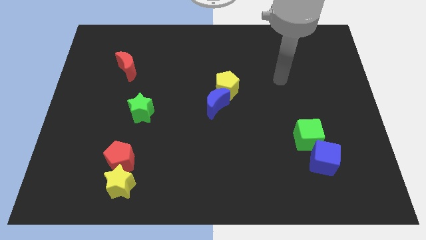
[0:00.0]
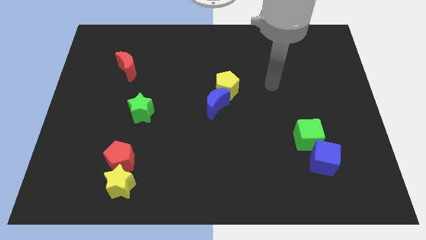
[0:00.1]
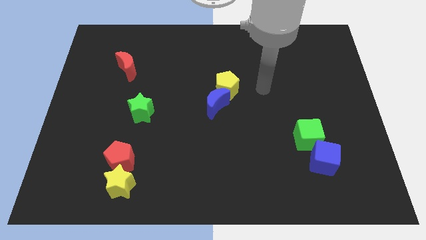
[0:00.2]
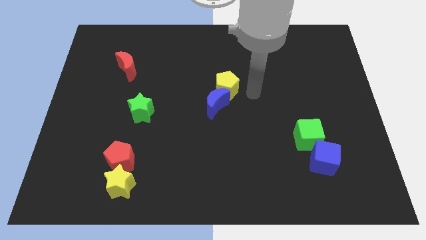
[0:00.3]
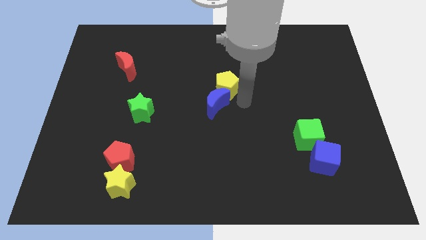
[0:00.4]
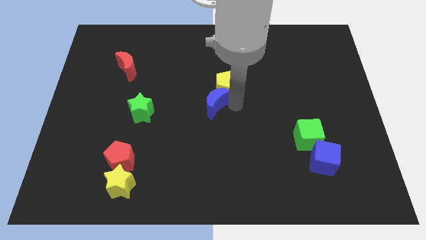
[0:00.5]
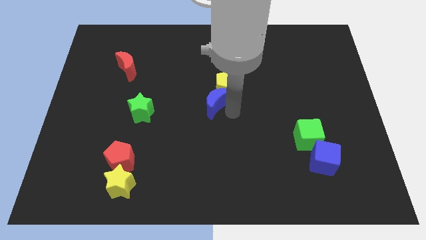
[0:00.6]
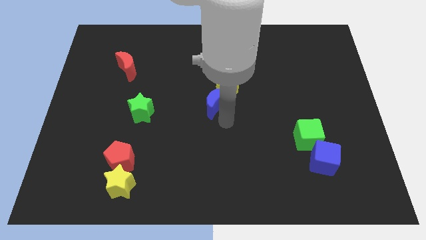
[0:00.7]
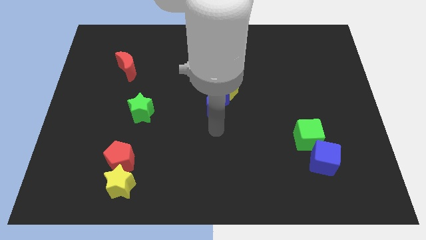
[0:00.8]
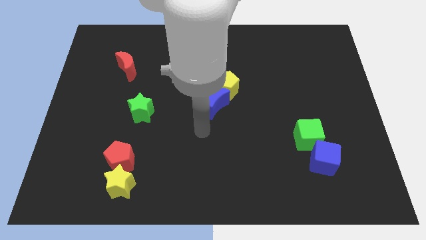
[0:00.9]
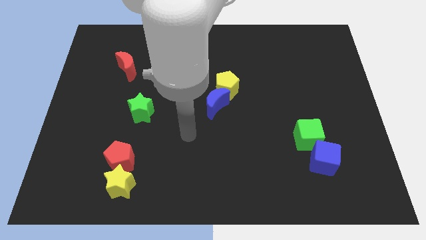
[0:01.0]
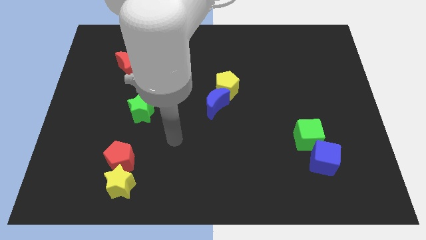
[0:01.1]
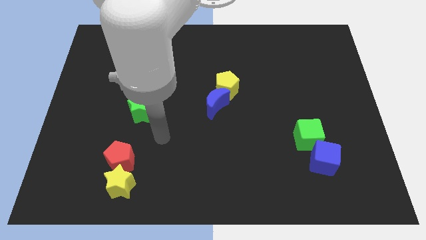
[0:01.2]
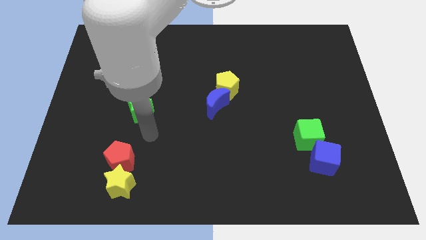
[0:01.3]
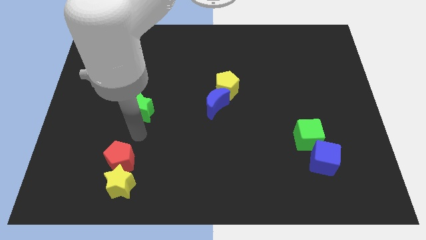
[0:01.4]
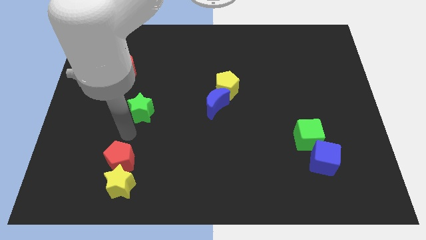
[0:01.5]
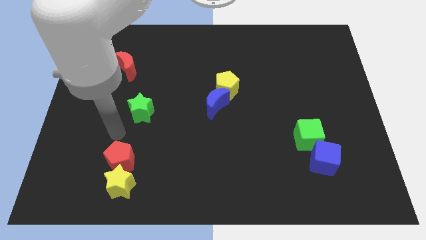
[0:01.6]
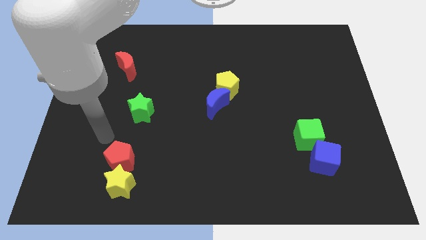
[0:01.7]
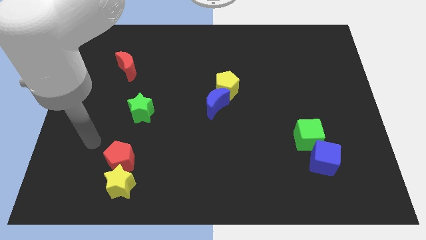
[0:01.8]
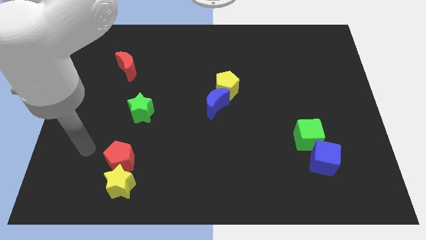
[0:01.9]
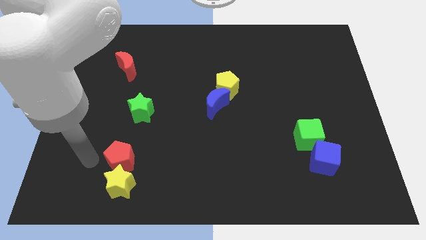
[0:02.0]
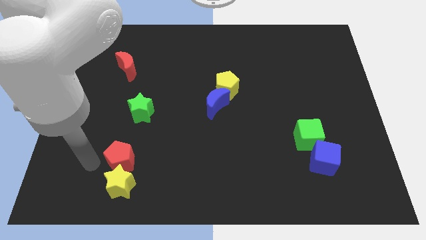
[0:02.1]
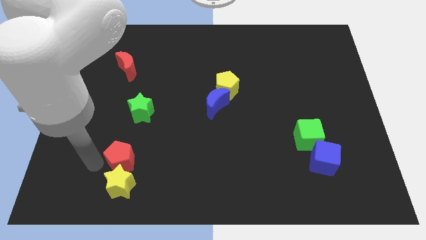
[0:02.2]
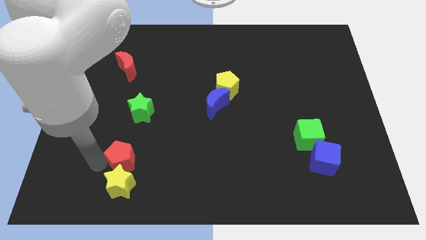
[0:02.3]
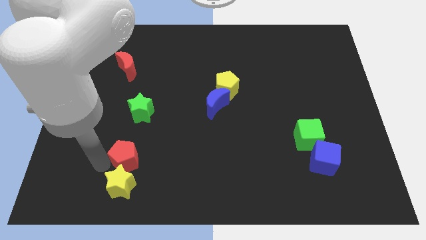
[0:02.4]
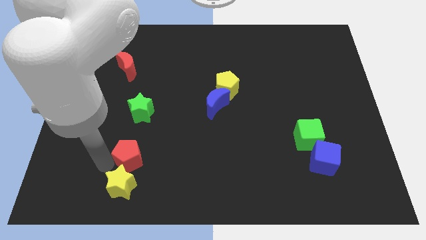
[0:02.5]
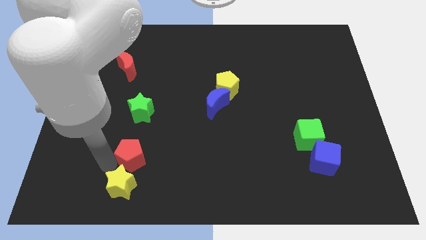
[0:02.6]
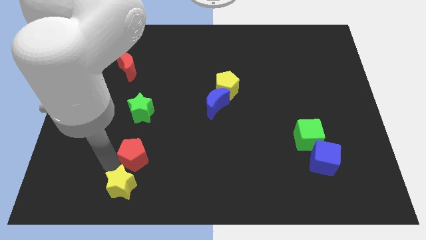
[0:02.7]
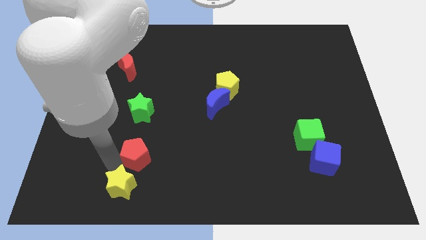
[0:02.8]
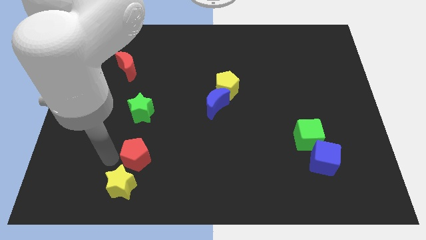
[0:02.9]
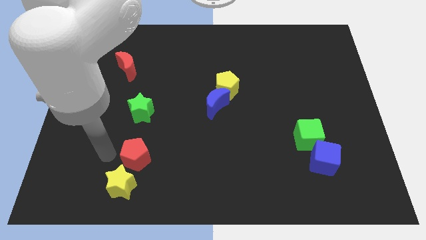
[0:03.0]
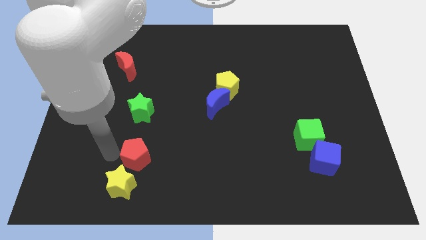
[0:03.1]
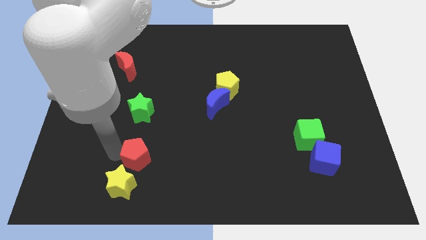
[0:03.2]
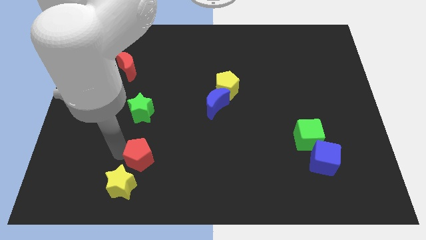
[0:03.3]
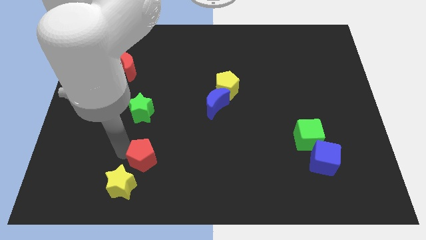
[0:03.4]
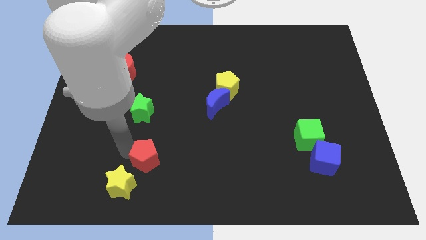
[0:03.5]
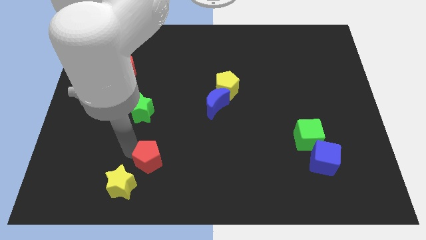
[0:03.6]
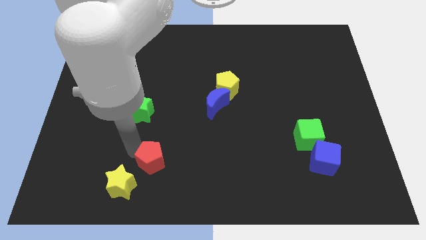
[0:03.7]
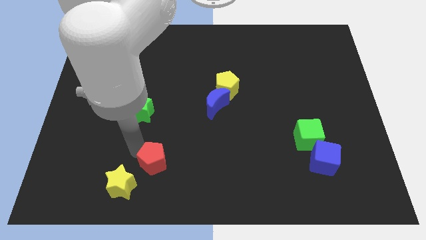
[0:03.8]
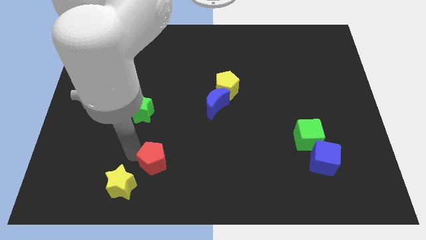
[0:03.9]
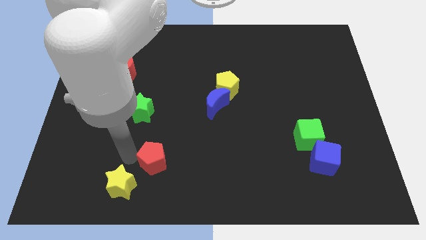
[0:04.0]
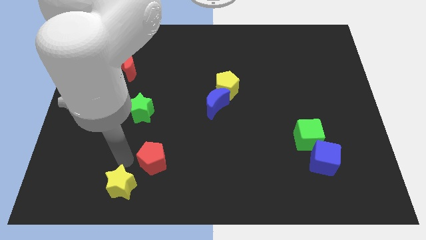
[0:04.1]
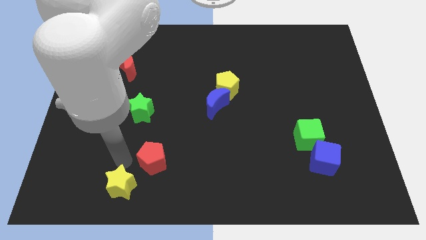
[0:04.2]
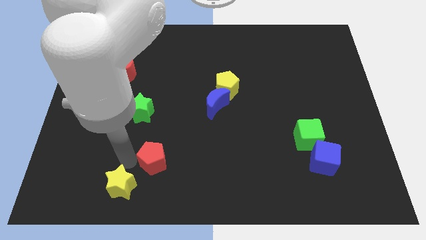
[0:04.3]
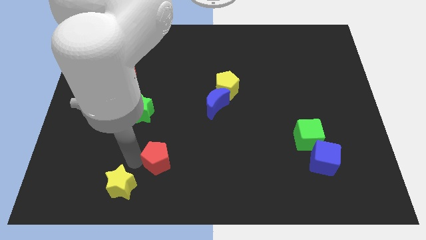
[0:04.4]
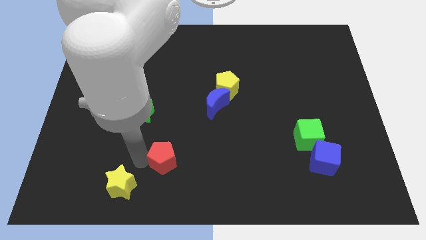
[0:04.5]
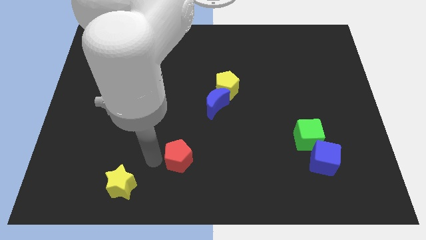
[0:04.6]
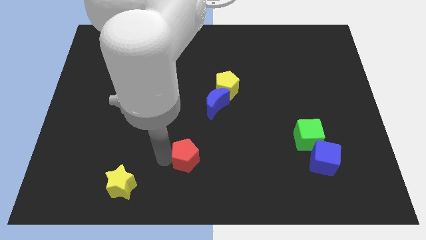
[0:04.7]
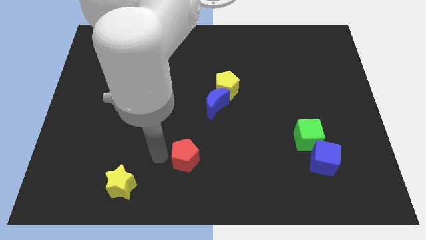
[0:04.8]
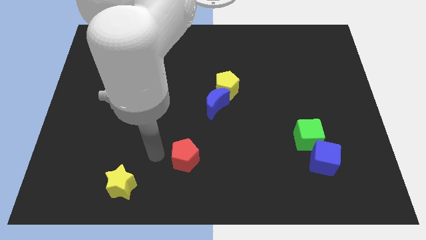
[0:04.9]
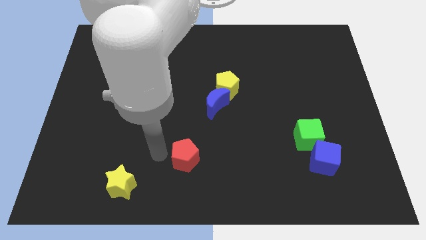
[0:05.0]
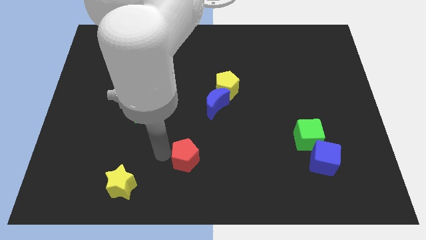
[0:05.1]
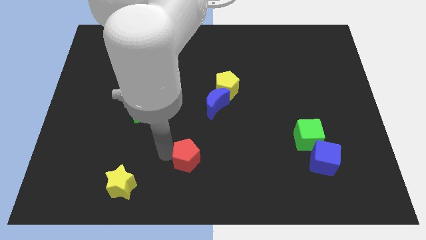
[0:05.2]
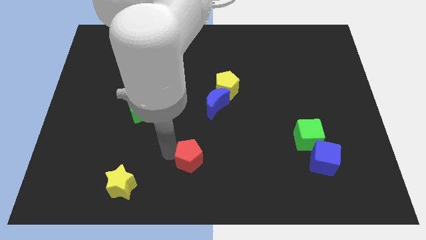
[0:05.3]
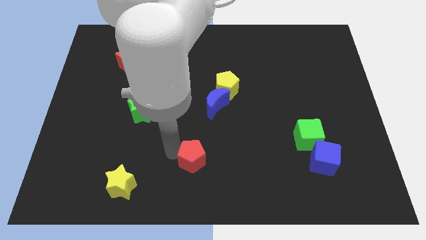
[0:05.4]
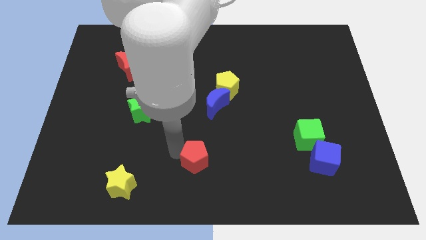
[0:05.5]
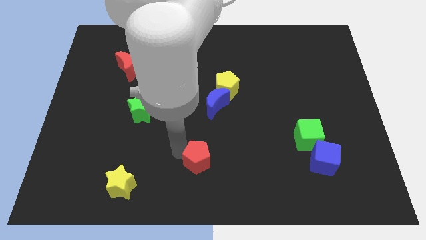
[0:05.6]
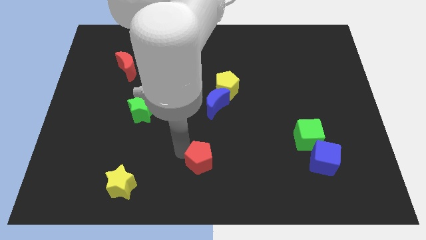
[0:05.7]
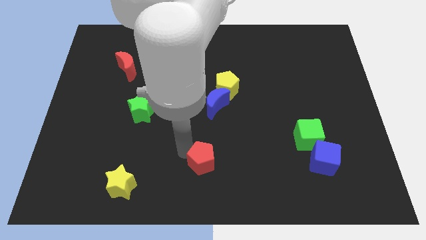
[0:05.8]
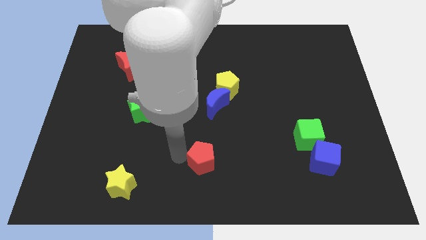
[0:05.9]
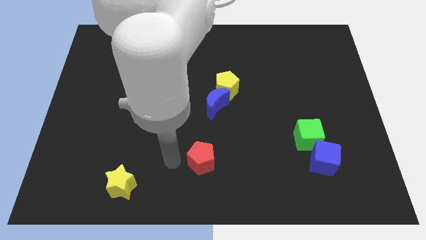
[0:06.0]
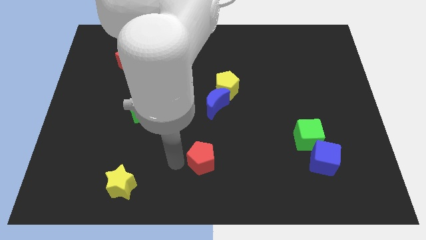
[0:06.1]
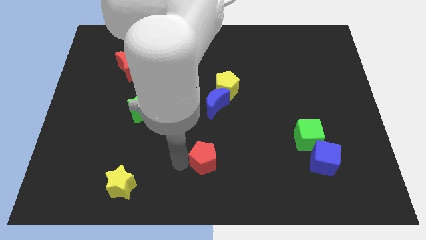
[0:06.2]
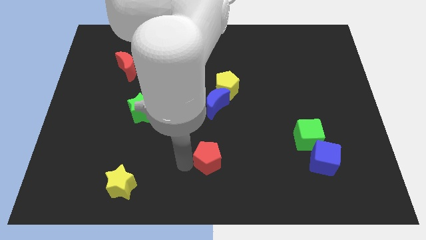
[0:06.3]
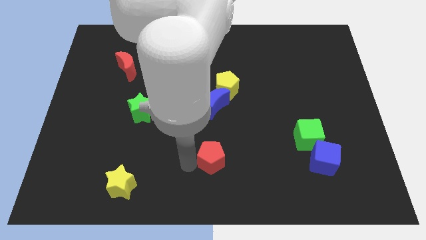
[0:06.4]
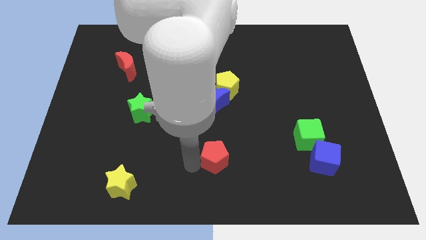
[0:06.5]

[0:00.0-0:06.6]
push the red pentagon to the right

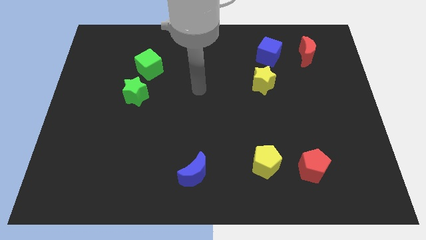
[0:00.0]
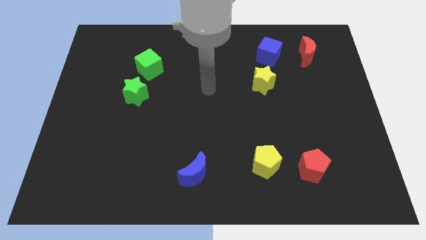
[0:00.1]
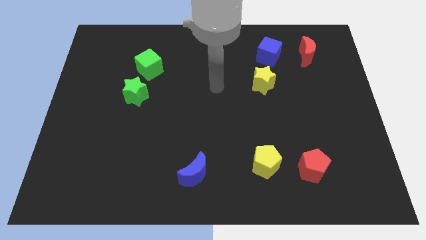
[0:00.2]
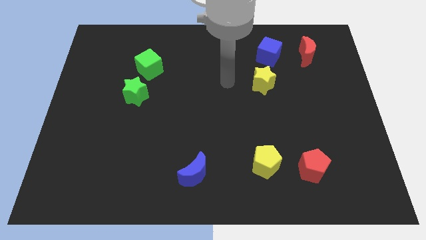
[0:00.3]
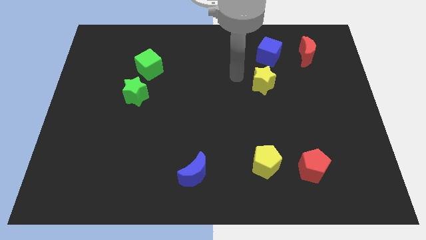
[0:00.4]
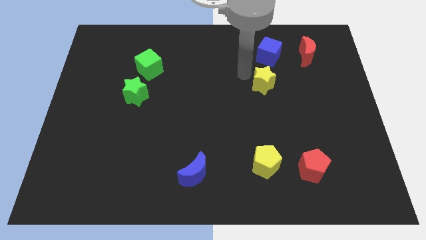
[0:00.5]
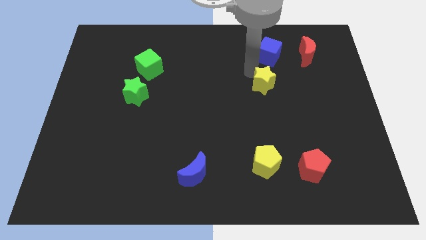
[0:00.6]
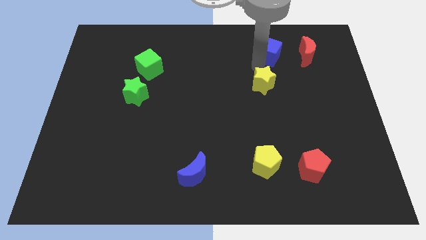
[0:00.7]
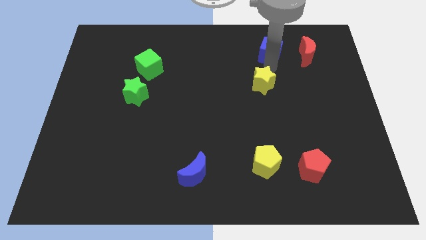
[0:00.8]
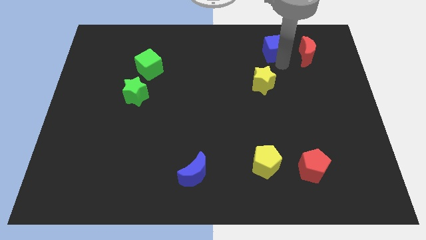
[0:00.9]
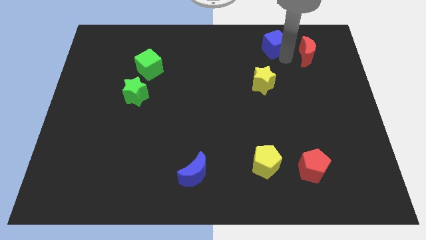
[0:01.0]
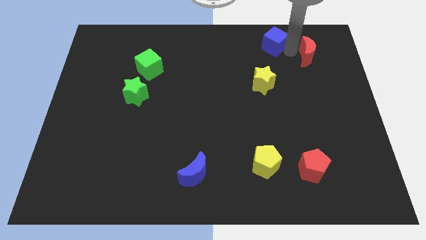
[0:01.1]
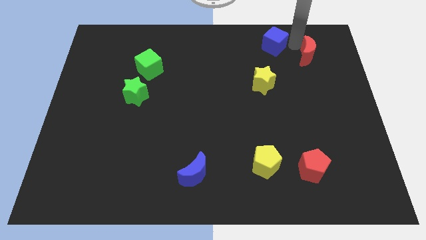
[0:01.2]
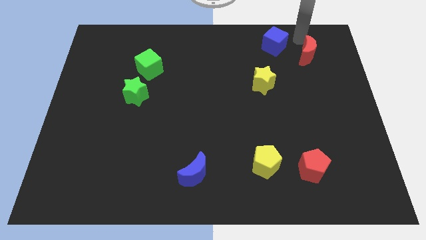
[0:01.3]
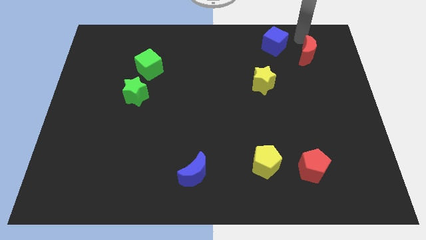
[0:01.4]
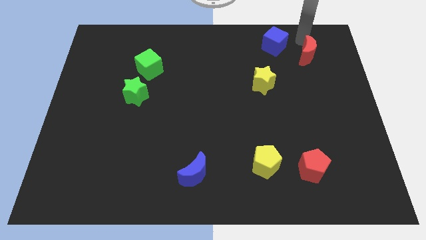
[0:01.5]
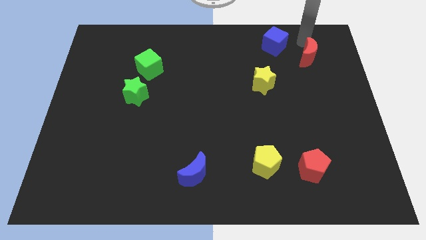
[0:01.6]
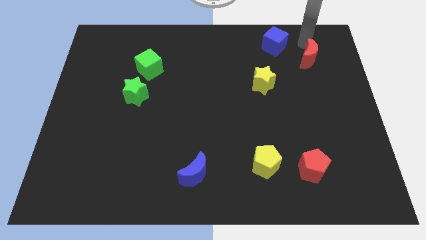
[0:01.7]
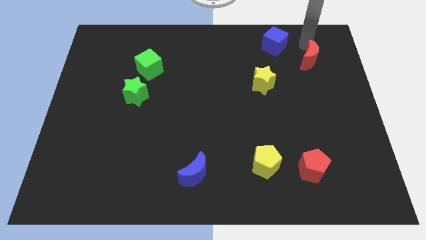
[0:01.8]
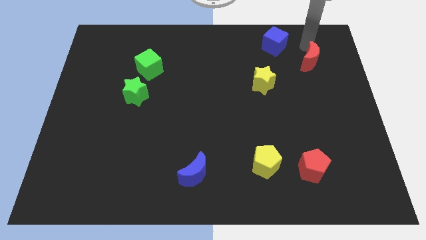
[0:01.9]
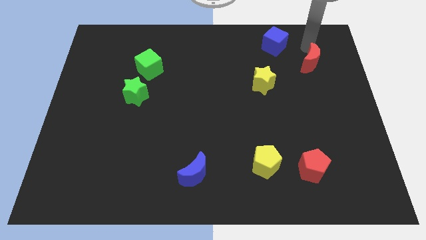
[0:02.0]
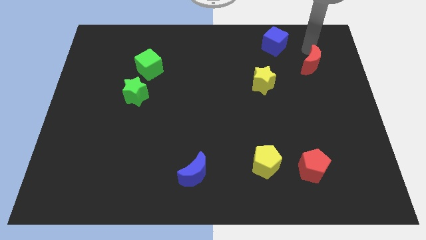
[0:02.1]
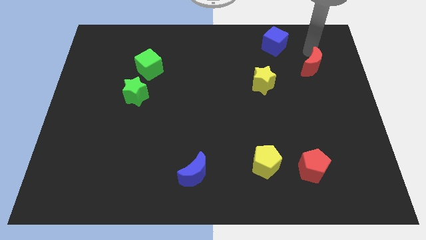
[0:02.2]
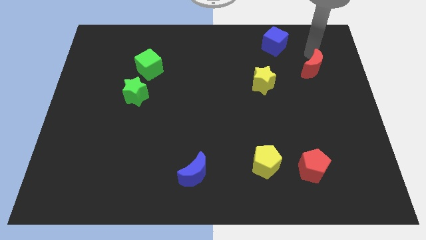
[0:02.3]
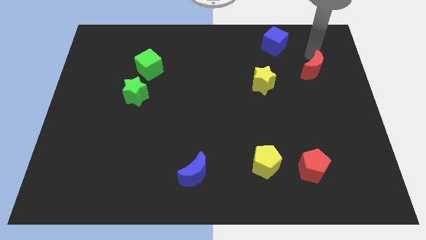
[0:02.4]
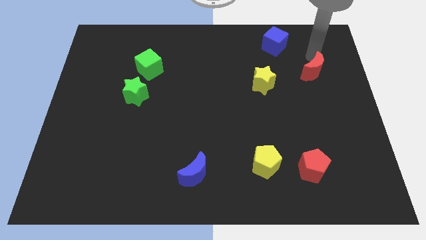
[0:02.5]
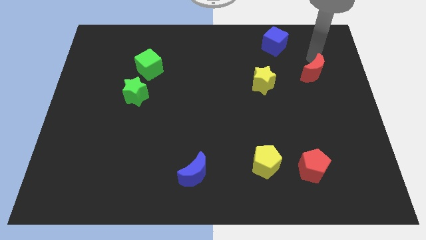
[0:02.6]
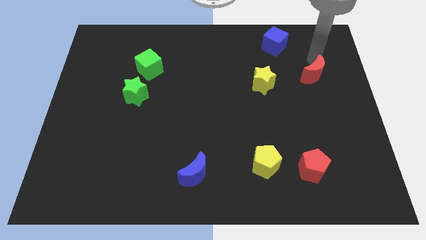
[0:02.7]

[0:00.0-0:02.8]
slightly slide the red moon down
